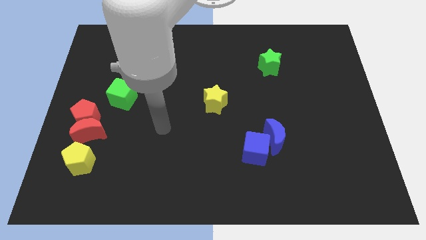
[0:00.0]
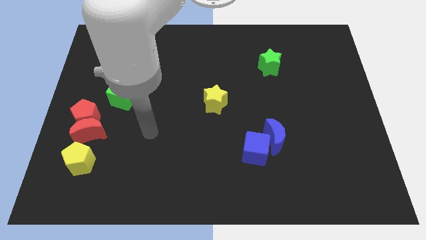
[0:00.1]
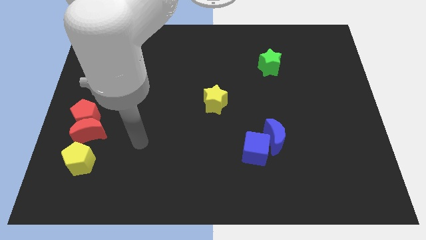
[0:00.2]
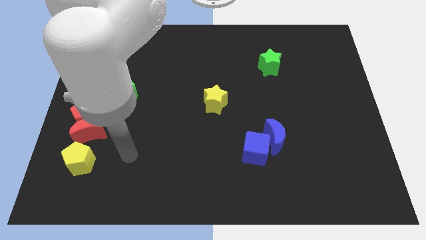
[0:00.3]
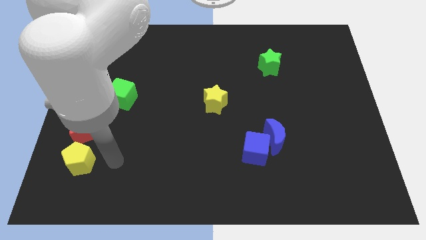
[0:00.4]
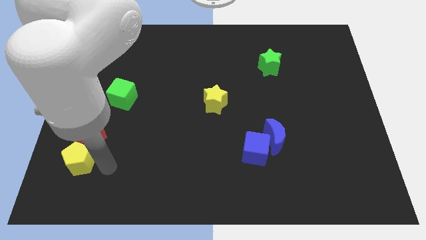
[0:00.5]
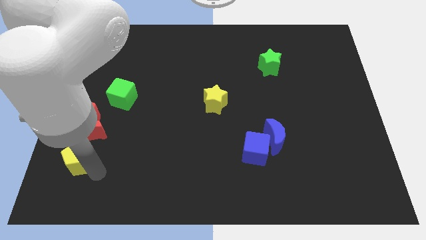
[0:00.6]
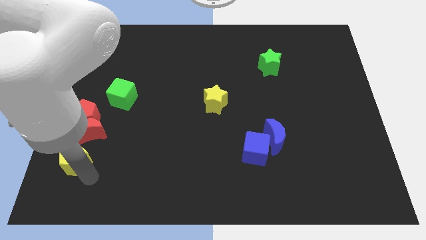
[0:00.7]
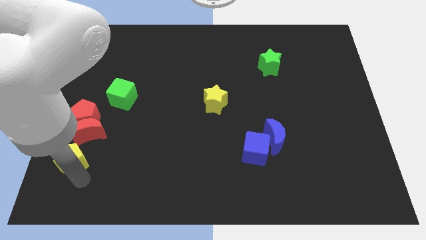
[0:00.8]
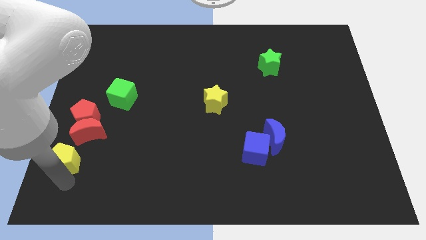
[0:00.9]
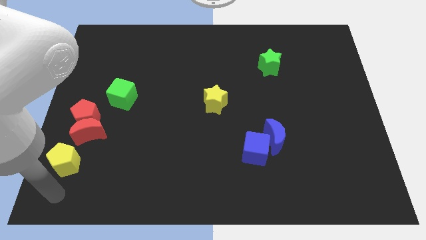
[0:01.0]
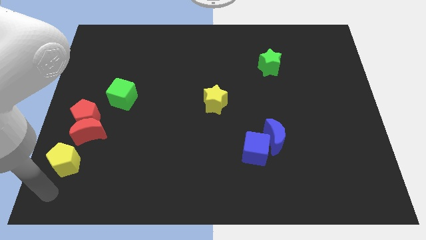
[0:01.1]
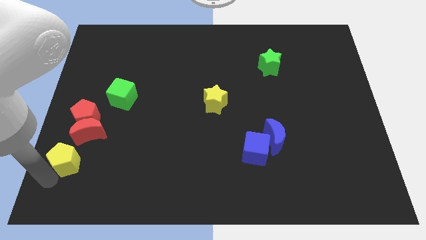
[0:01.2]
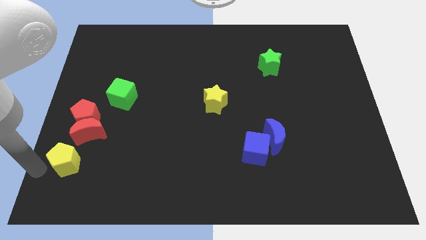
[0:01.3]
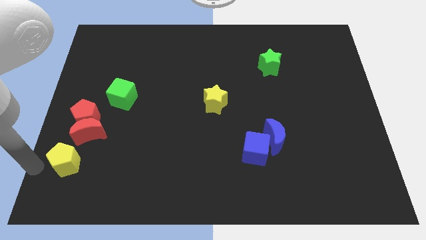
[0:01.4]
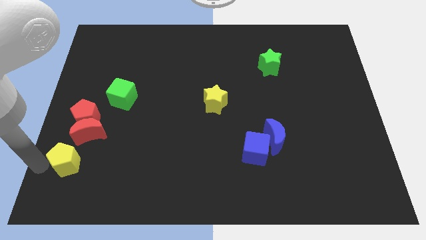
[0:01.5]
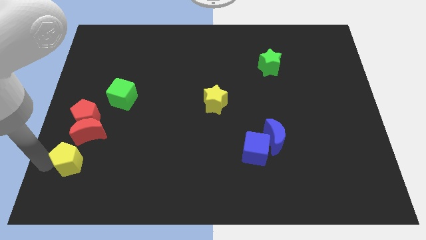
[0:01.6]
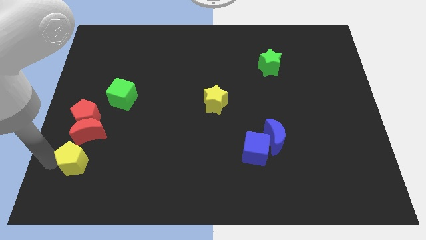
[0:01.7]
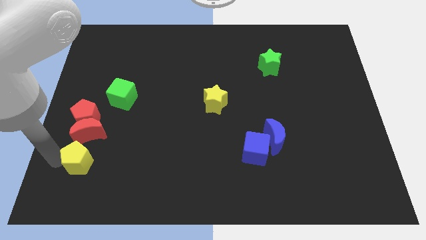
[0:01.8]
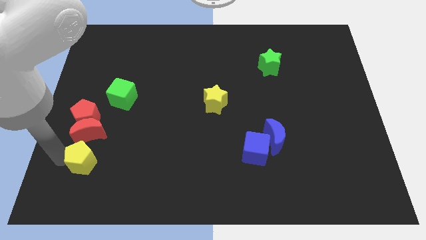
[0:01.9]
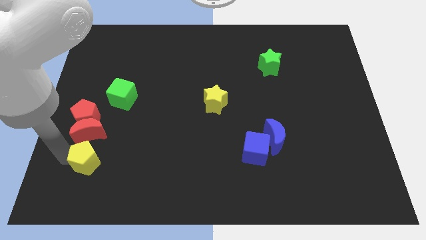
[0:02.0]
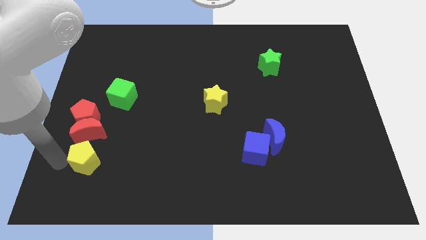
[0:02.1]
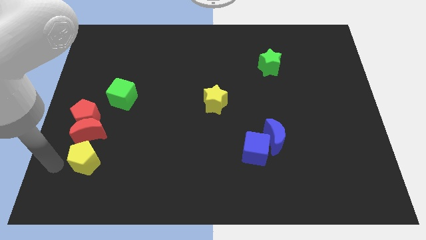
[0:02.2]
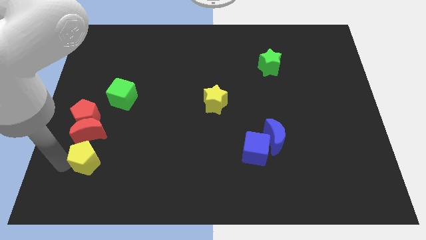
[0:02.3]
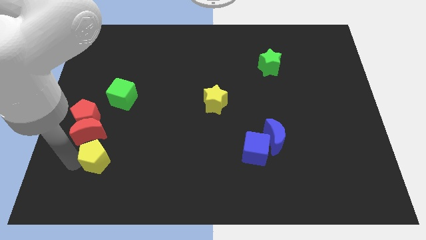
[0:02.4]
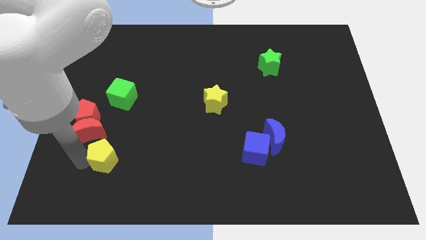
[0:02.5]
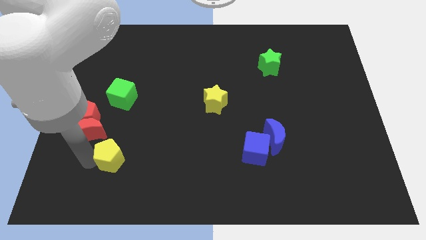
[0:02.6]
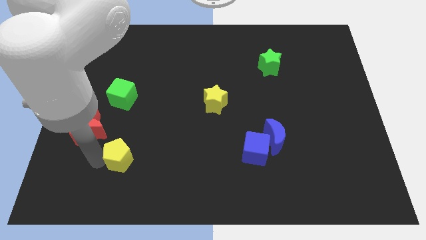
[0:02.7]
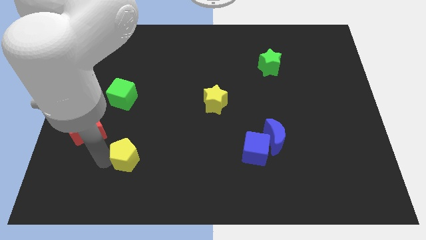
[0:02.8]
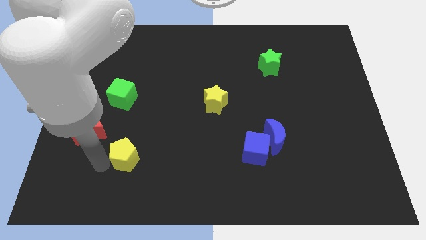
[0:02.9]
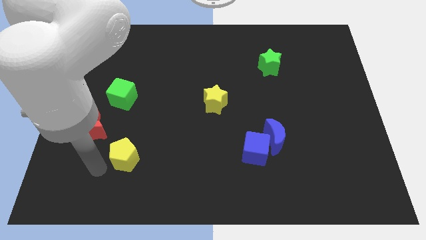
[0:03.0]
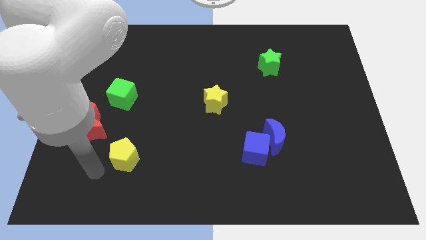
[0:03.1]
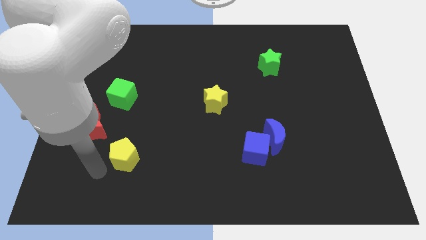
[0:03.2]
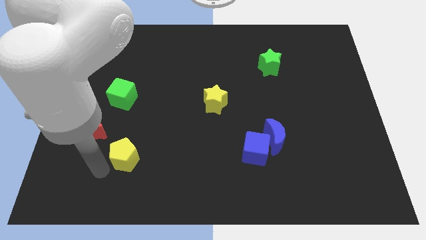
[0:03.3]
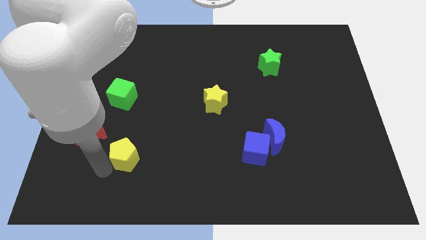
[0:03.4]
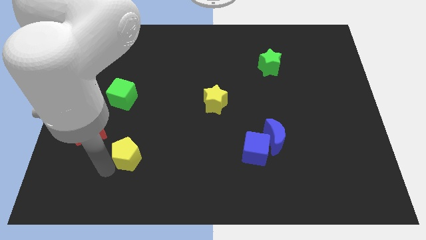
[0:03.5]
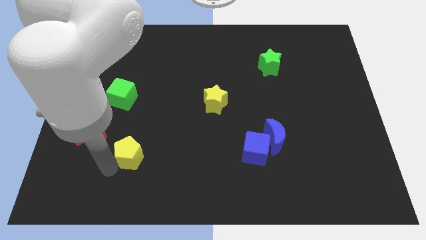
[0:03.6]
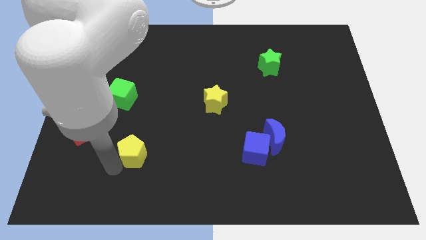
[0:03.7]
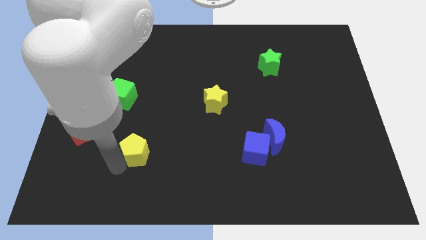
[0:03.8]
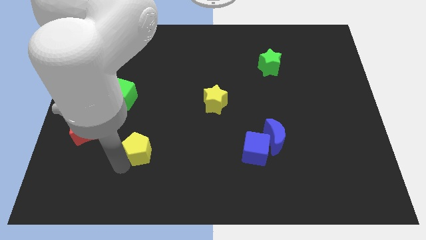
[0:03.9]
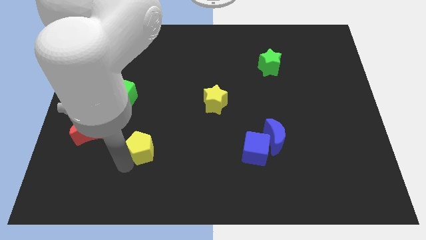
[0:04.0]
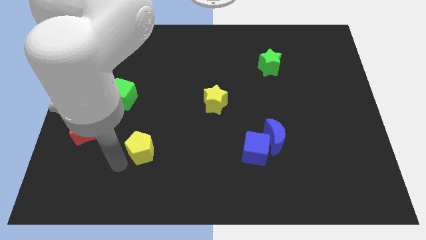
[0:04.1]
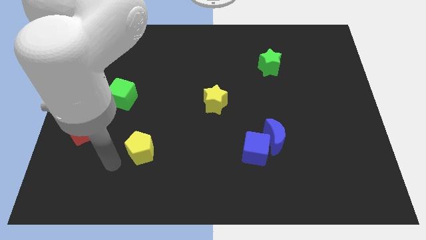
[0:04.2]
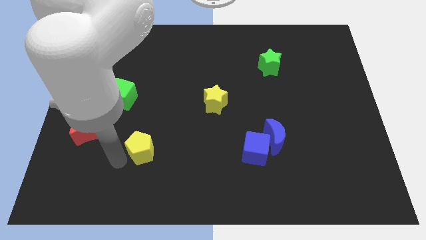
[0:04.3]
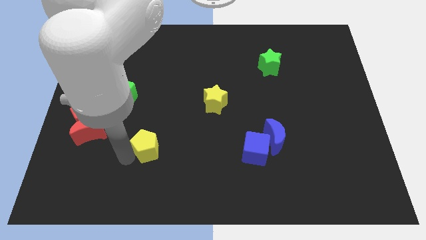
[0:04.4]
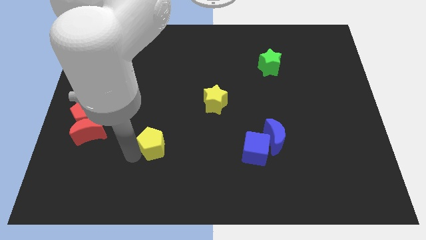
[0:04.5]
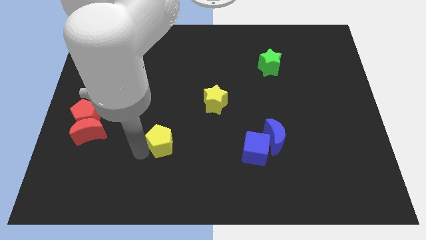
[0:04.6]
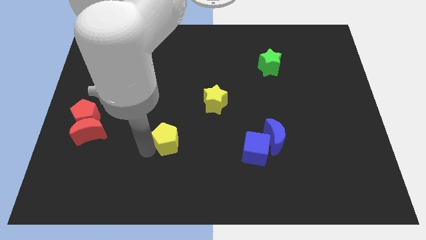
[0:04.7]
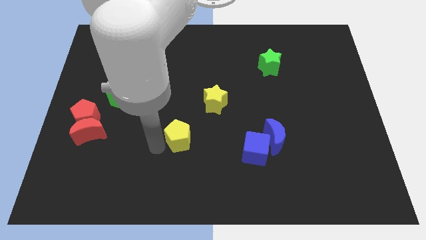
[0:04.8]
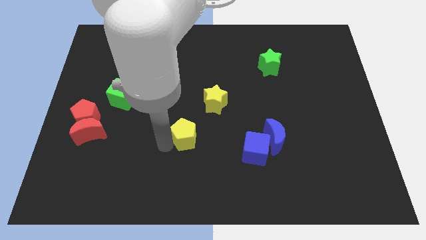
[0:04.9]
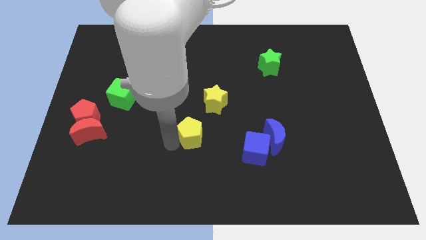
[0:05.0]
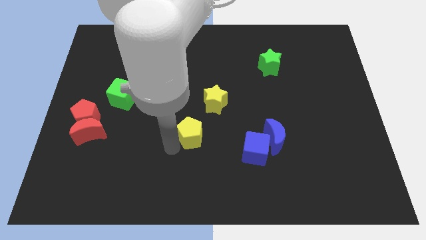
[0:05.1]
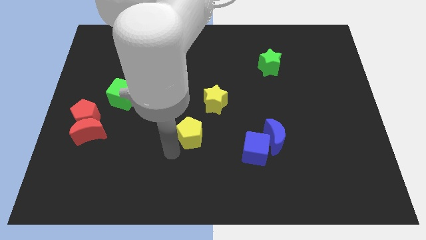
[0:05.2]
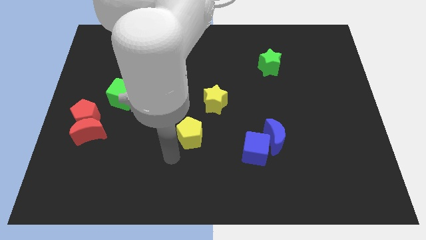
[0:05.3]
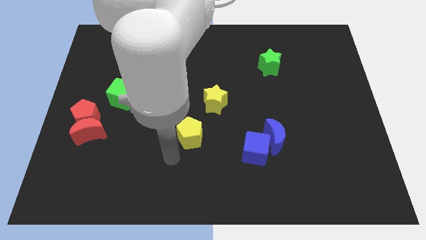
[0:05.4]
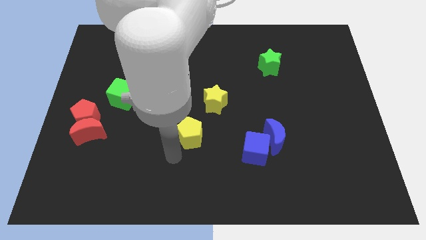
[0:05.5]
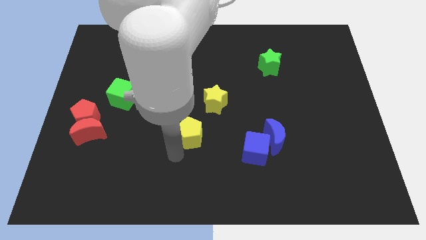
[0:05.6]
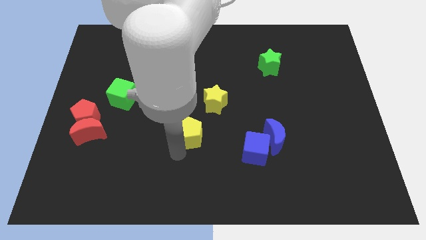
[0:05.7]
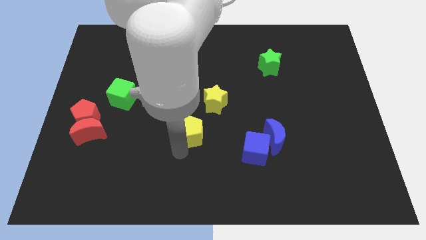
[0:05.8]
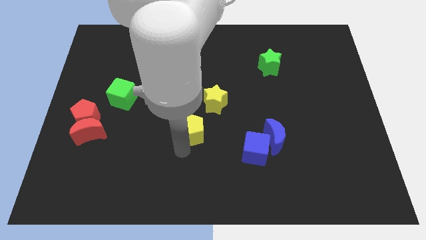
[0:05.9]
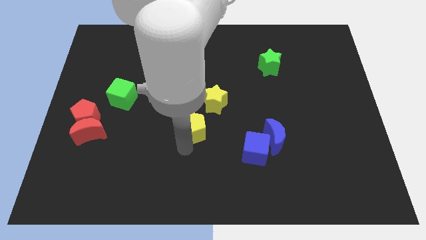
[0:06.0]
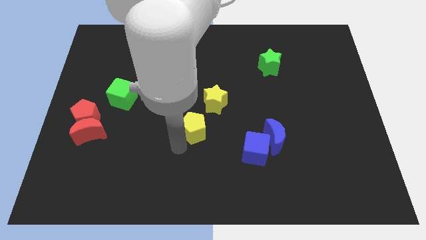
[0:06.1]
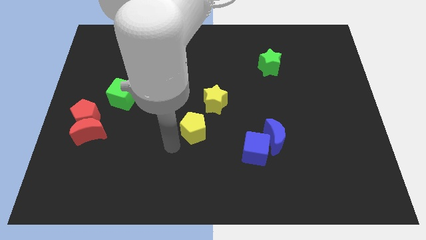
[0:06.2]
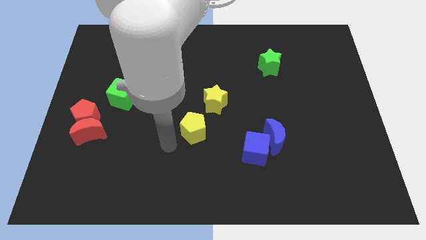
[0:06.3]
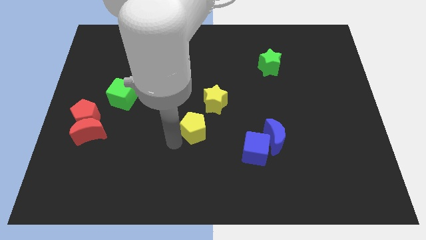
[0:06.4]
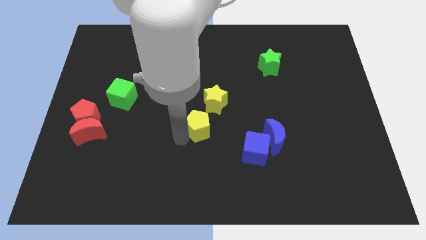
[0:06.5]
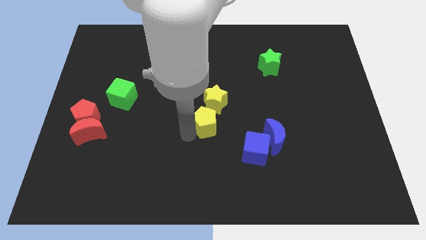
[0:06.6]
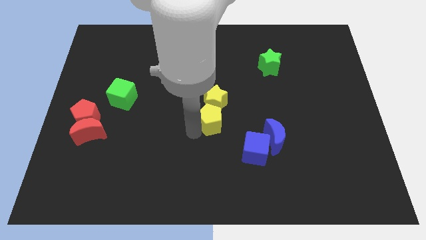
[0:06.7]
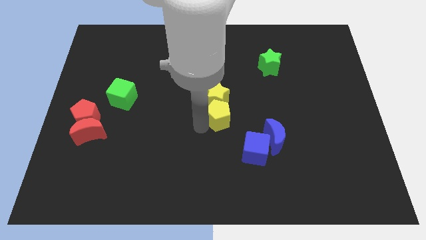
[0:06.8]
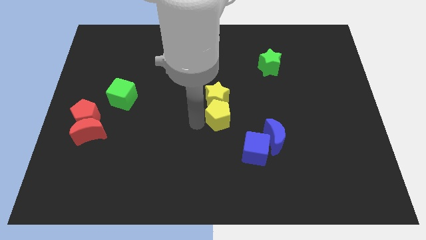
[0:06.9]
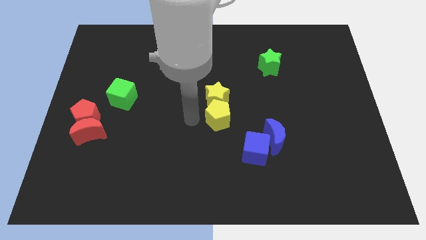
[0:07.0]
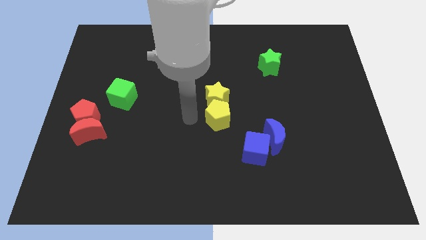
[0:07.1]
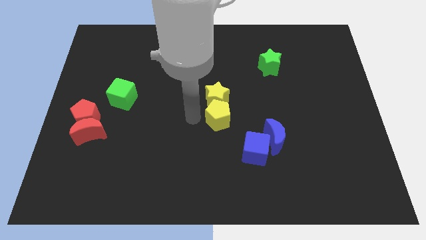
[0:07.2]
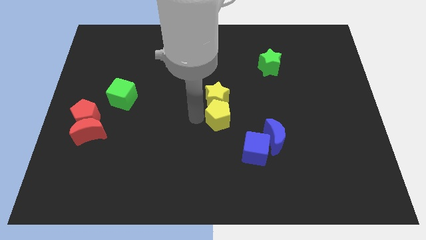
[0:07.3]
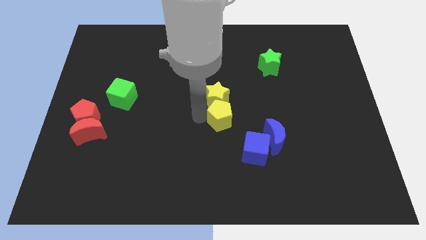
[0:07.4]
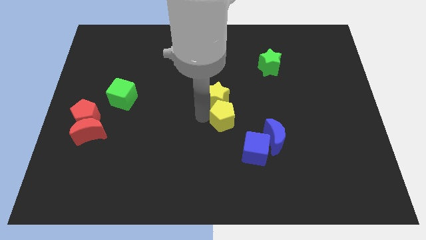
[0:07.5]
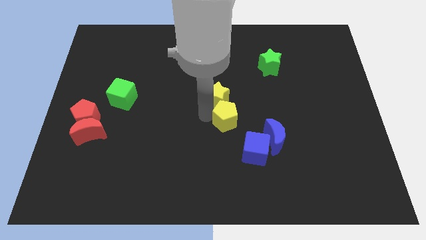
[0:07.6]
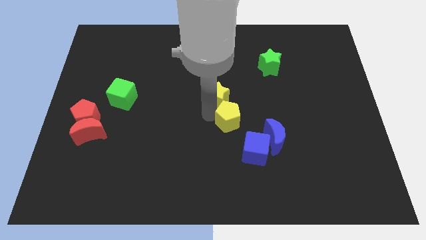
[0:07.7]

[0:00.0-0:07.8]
put the yellow pentagon diagonally up and to the left of the blue moon

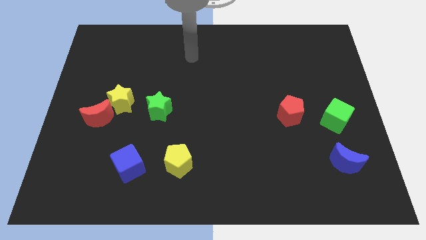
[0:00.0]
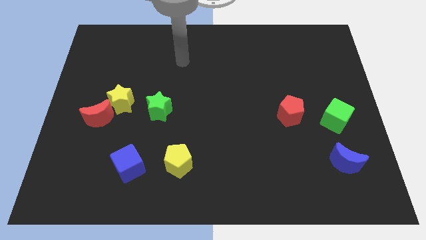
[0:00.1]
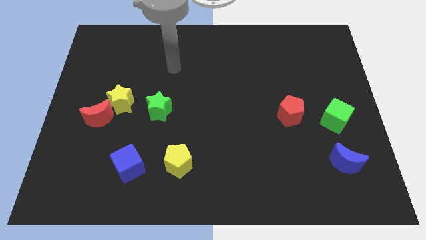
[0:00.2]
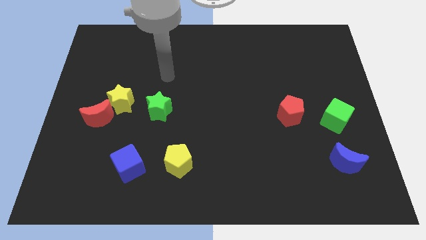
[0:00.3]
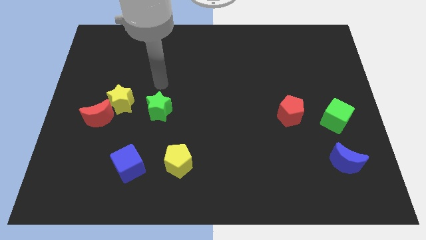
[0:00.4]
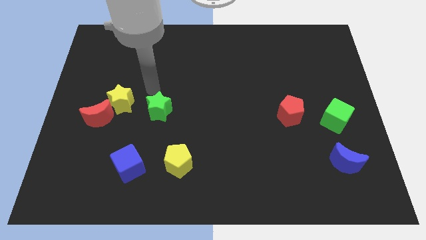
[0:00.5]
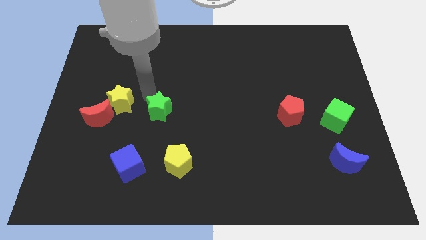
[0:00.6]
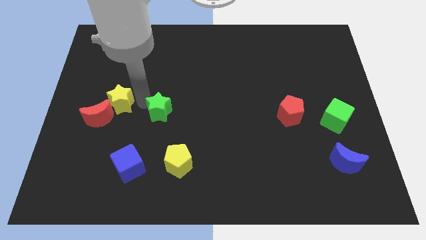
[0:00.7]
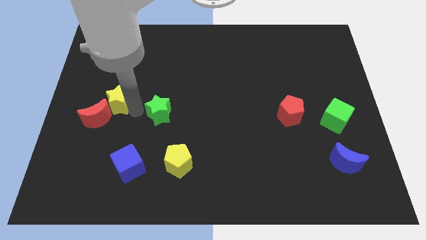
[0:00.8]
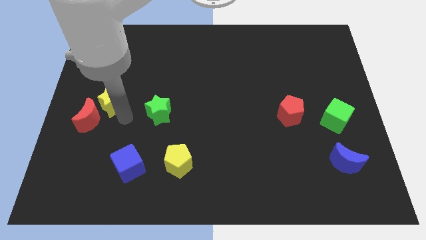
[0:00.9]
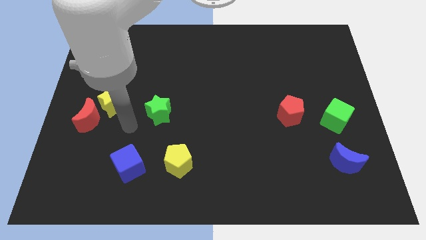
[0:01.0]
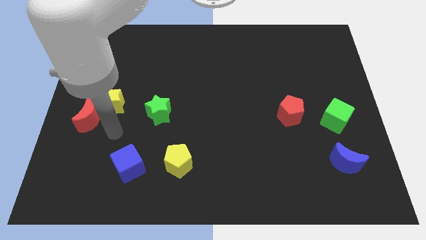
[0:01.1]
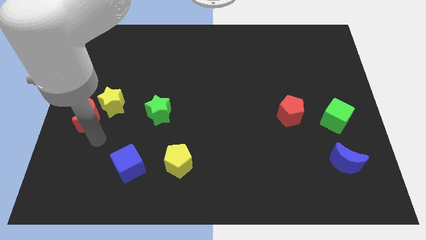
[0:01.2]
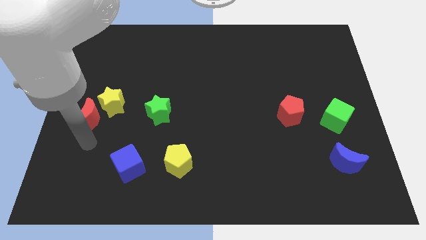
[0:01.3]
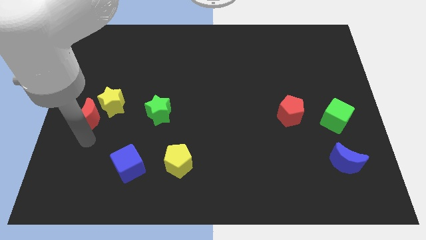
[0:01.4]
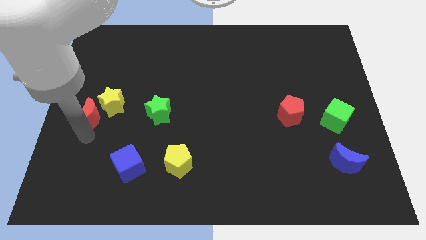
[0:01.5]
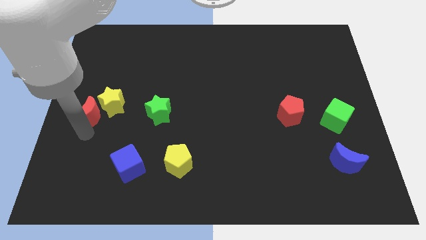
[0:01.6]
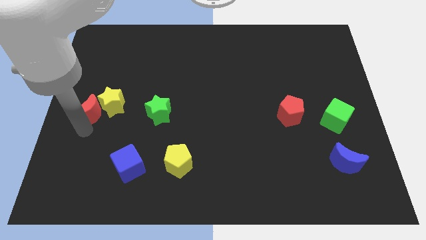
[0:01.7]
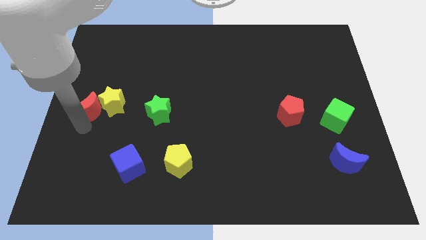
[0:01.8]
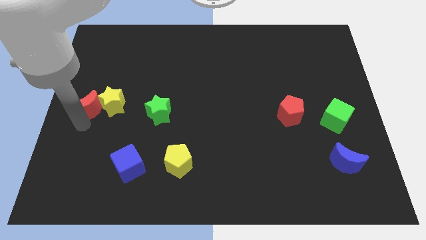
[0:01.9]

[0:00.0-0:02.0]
move the red moon to the top left of the yellow star
